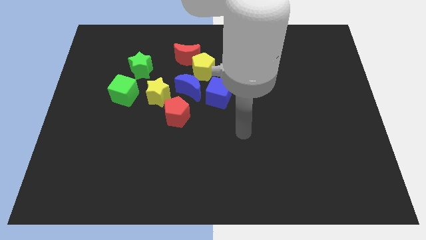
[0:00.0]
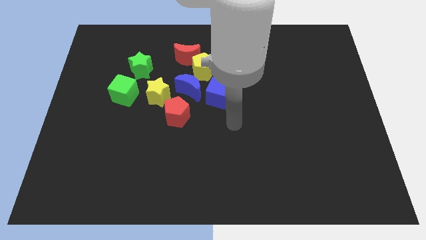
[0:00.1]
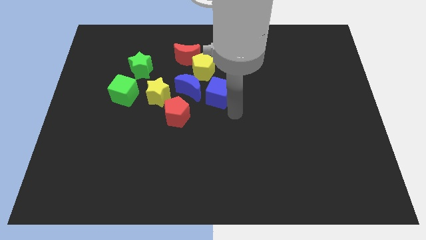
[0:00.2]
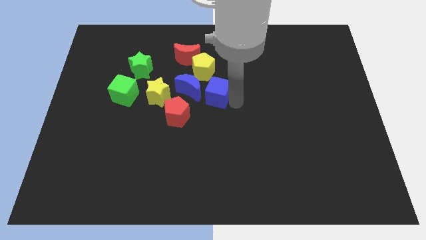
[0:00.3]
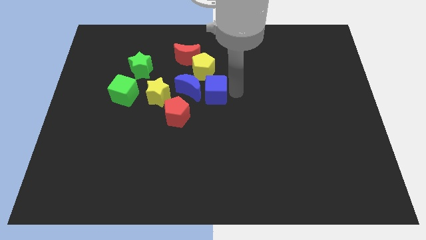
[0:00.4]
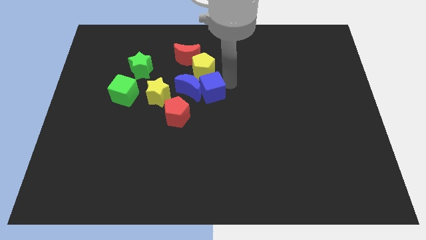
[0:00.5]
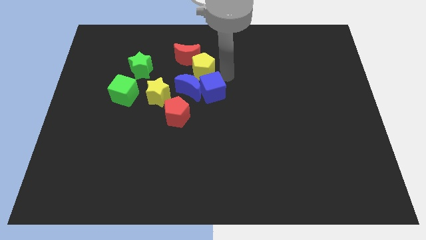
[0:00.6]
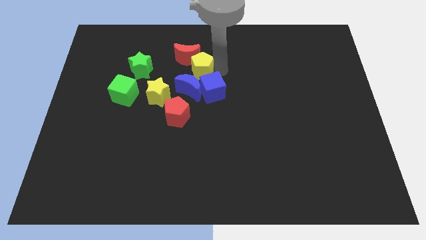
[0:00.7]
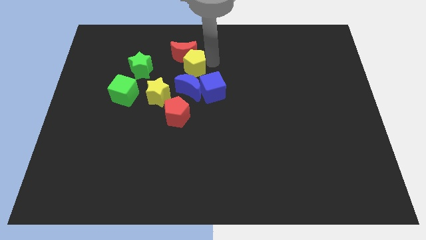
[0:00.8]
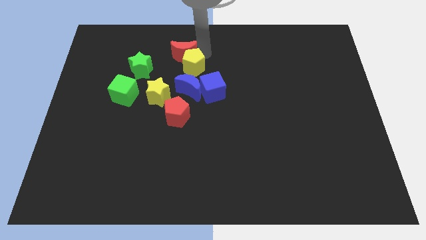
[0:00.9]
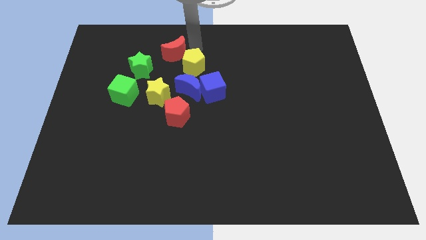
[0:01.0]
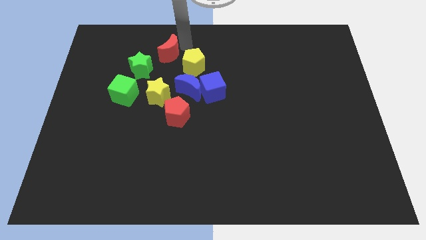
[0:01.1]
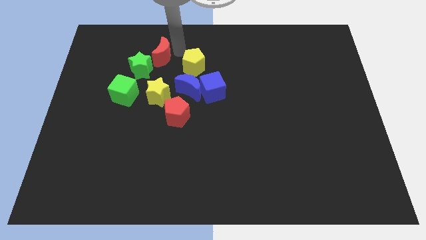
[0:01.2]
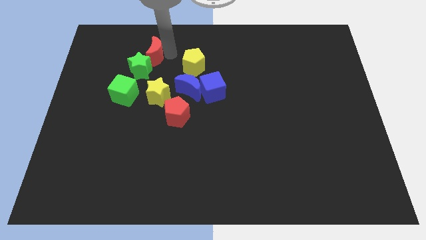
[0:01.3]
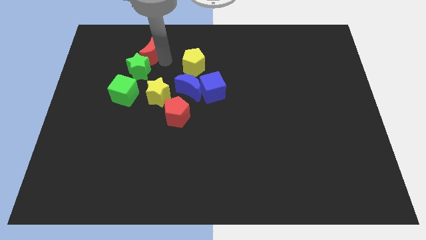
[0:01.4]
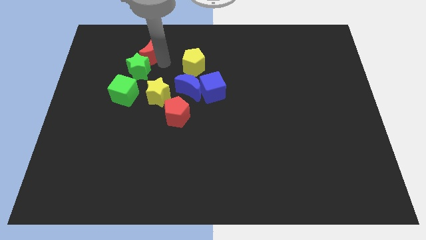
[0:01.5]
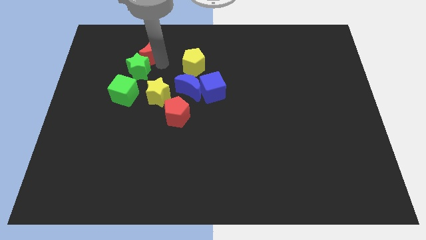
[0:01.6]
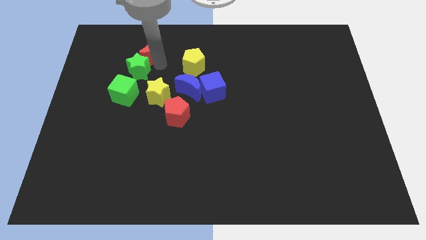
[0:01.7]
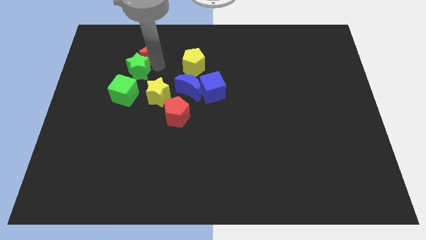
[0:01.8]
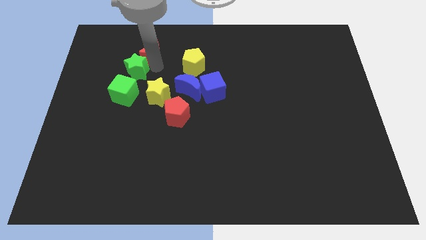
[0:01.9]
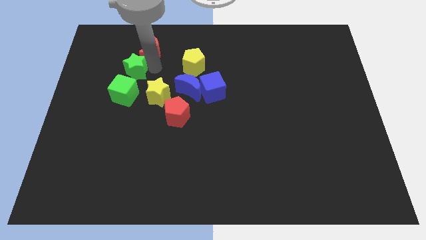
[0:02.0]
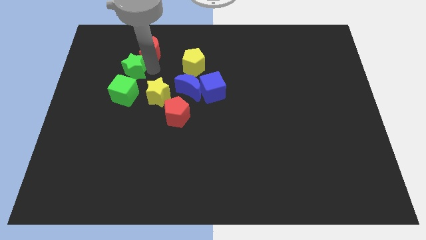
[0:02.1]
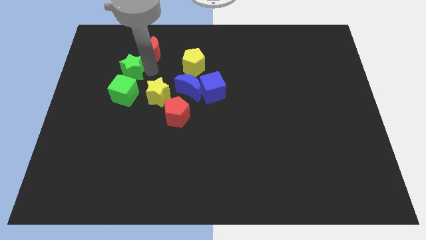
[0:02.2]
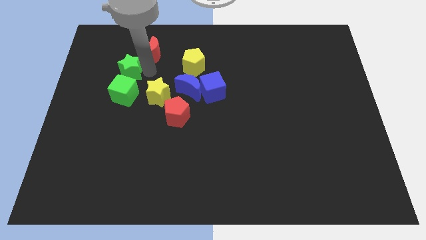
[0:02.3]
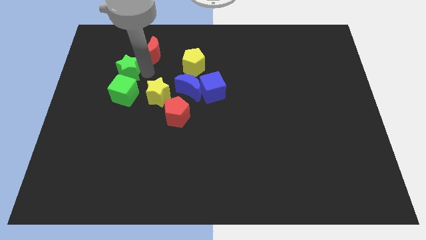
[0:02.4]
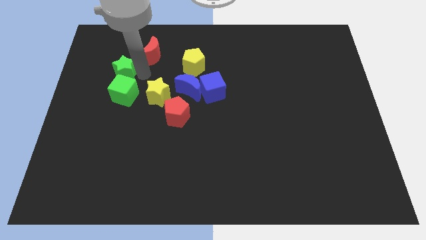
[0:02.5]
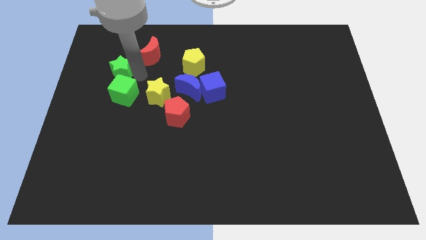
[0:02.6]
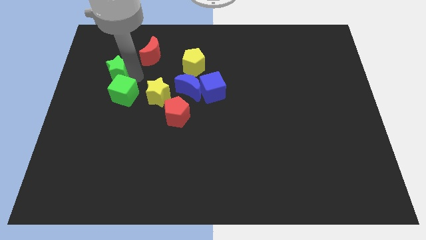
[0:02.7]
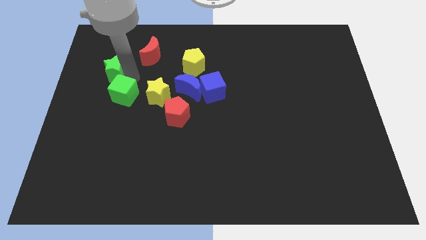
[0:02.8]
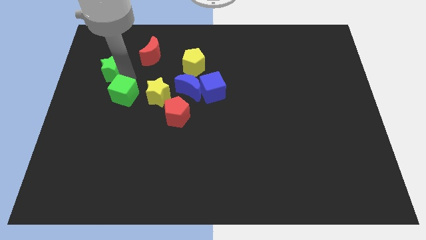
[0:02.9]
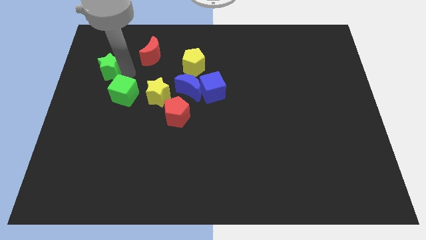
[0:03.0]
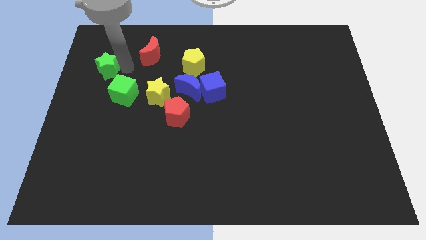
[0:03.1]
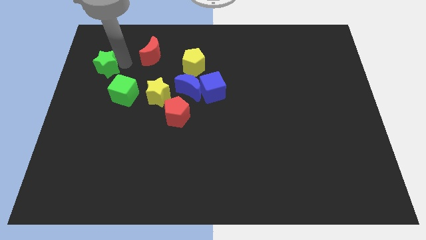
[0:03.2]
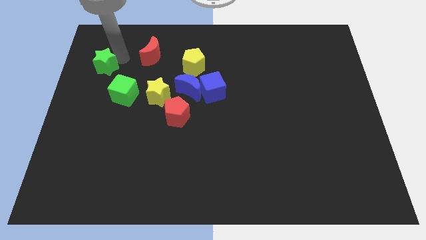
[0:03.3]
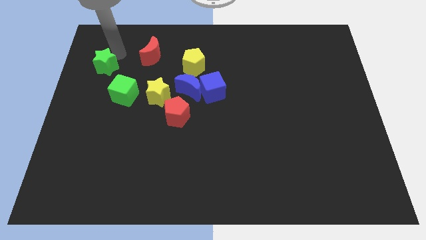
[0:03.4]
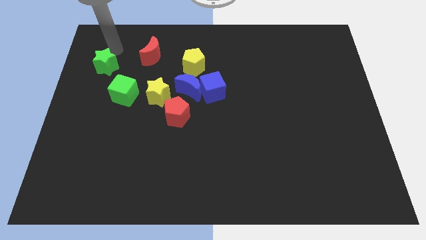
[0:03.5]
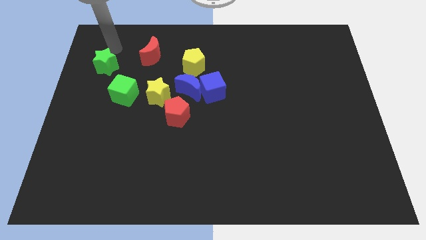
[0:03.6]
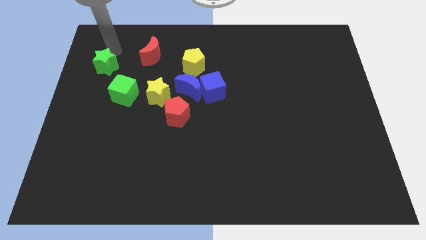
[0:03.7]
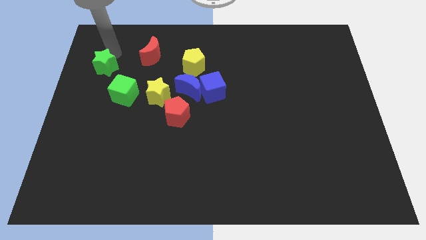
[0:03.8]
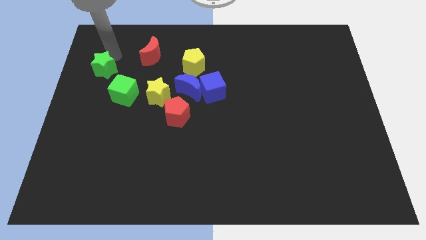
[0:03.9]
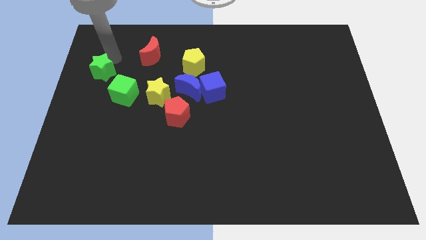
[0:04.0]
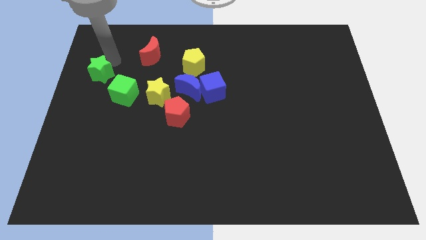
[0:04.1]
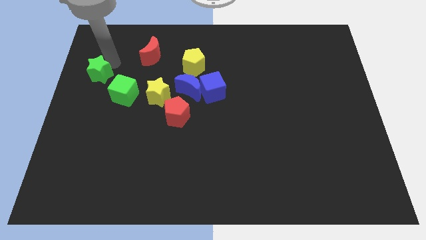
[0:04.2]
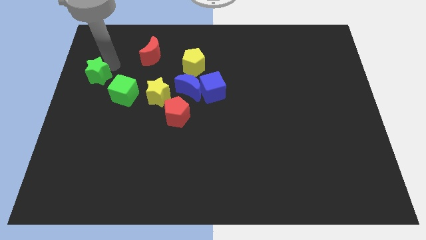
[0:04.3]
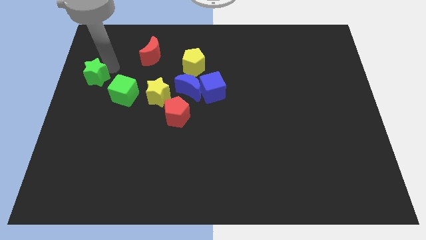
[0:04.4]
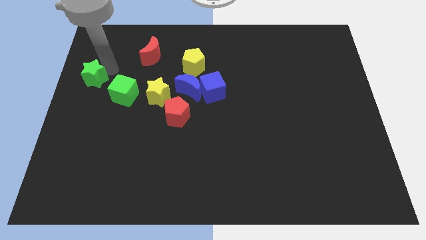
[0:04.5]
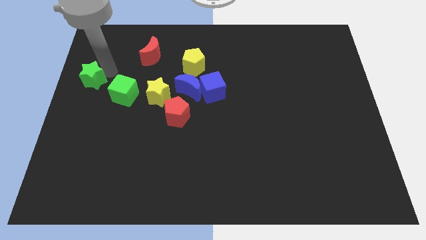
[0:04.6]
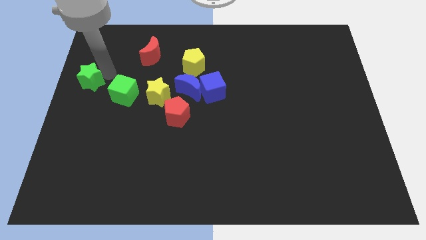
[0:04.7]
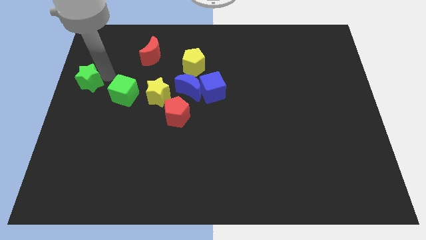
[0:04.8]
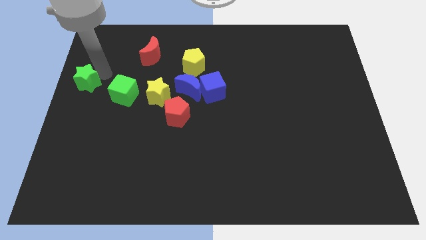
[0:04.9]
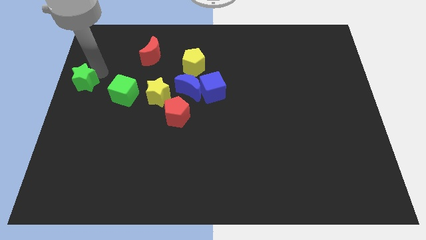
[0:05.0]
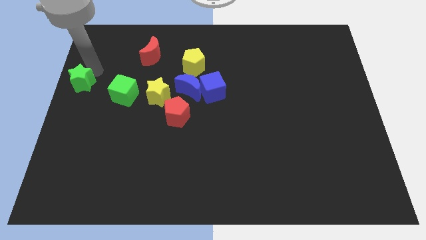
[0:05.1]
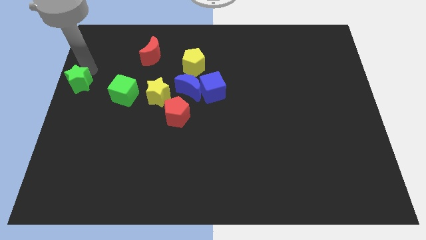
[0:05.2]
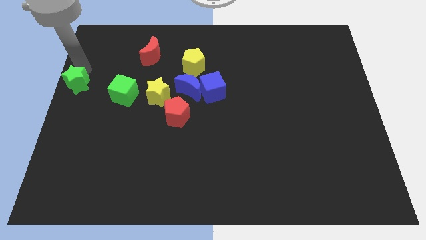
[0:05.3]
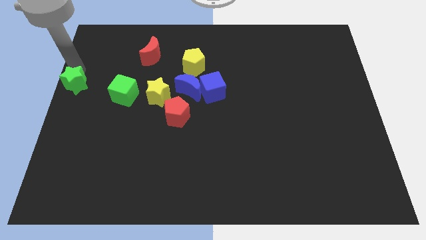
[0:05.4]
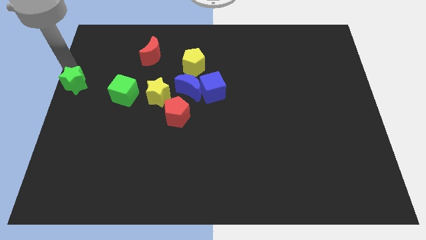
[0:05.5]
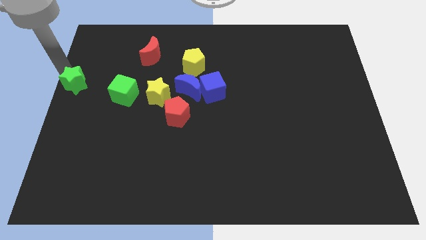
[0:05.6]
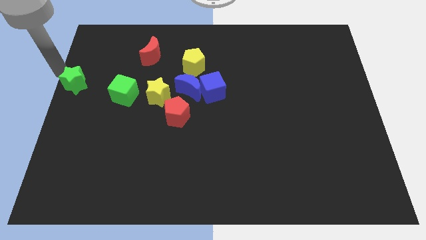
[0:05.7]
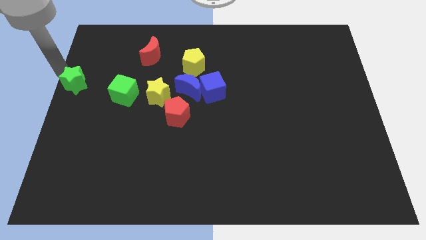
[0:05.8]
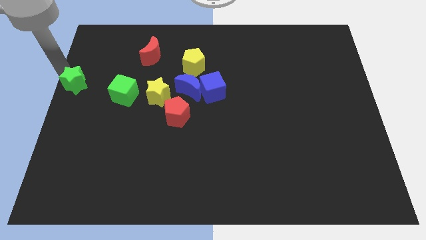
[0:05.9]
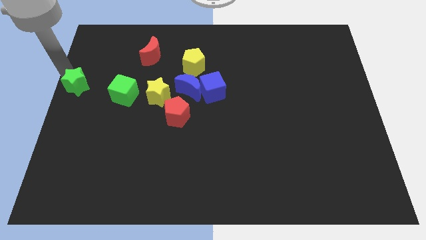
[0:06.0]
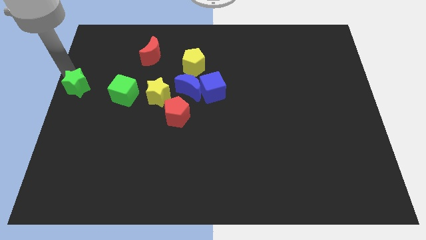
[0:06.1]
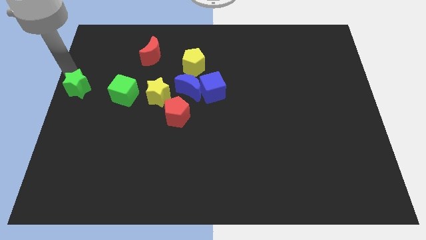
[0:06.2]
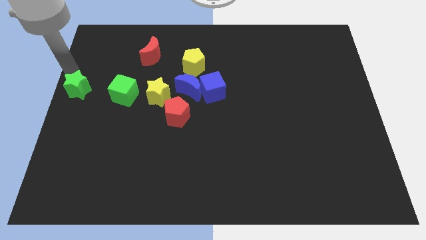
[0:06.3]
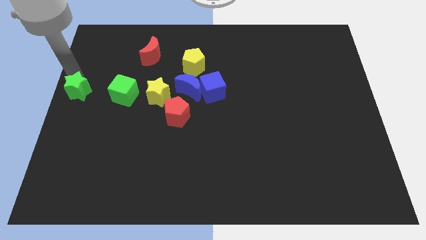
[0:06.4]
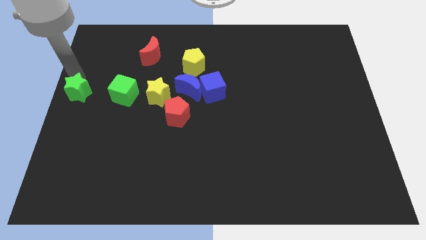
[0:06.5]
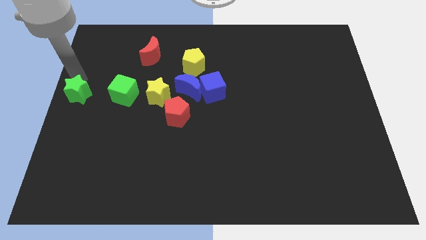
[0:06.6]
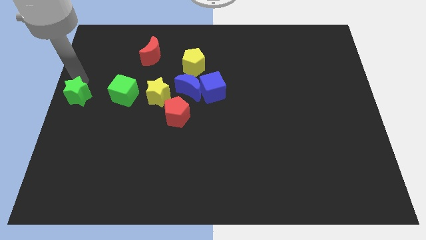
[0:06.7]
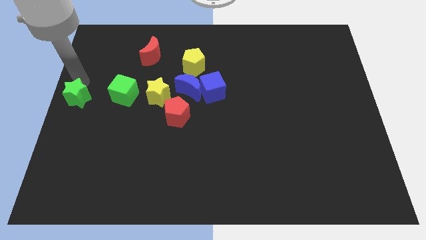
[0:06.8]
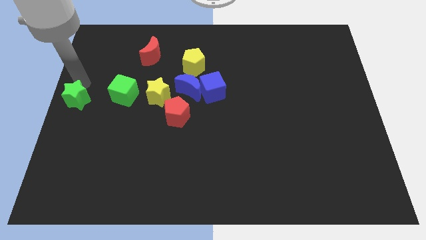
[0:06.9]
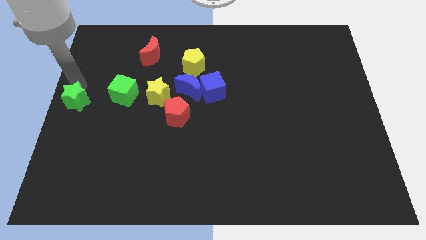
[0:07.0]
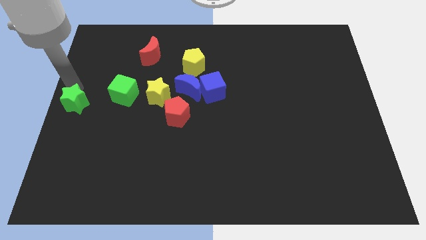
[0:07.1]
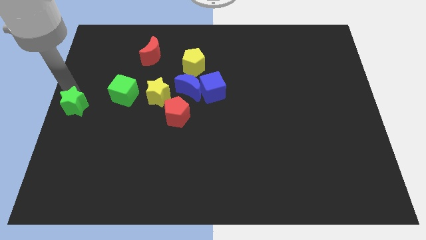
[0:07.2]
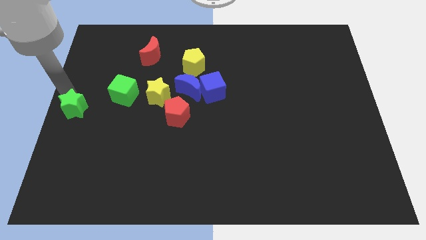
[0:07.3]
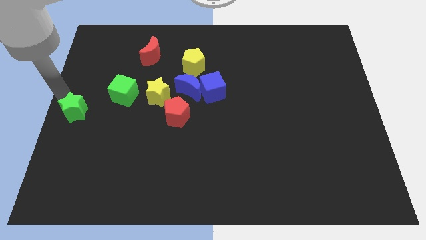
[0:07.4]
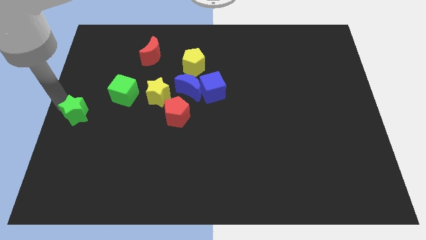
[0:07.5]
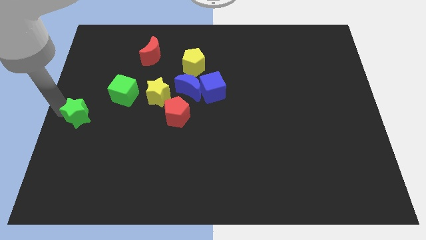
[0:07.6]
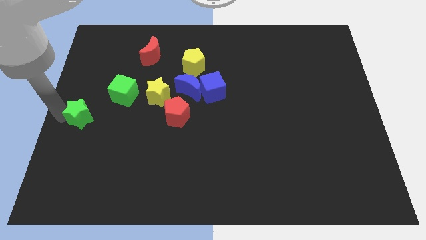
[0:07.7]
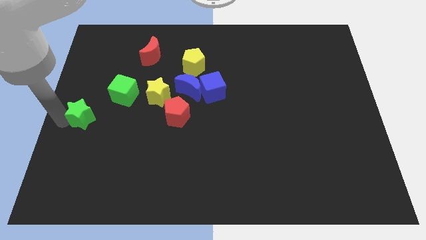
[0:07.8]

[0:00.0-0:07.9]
slide the green star slightly downwards

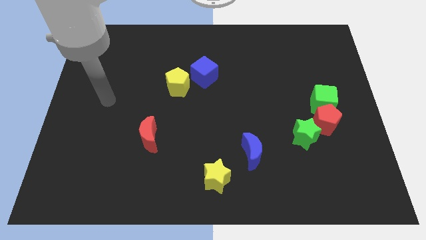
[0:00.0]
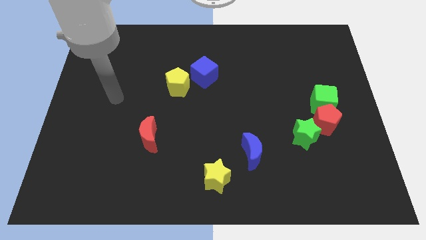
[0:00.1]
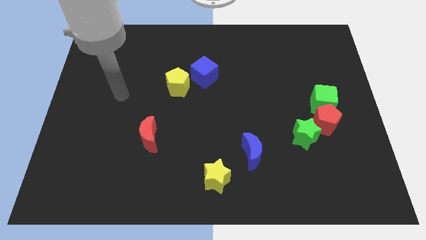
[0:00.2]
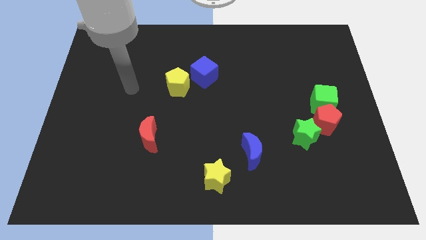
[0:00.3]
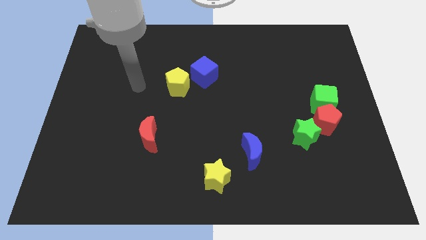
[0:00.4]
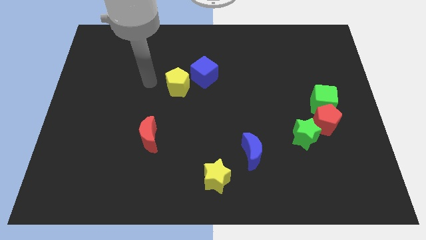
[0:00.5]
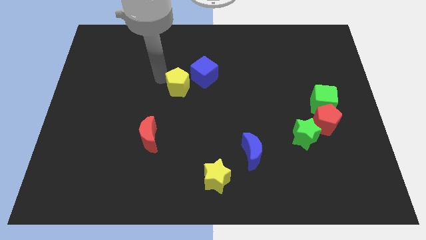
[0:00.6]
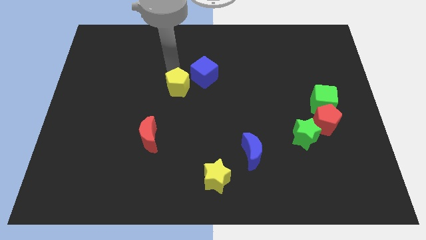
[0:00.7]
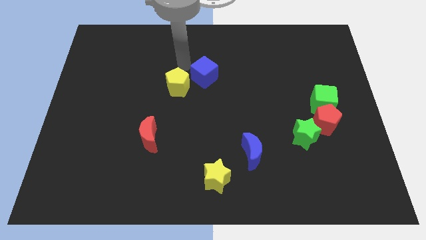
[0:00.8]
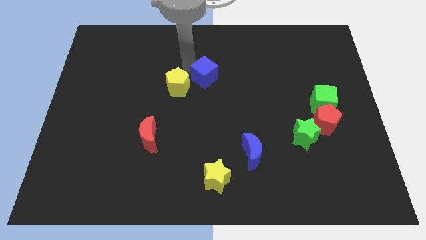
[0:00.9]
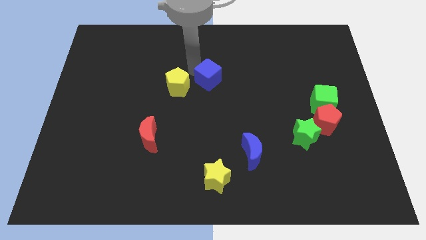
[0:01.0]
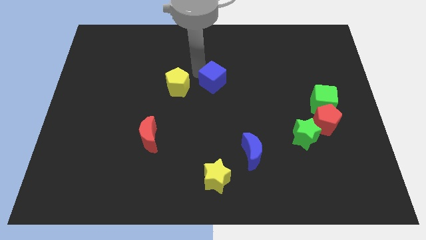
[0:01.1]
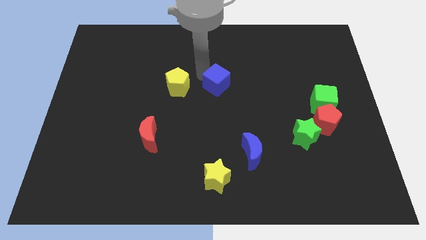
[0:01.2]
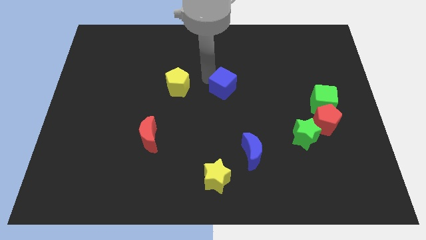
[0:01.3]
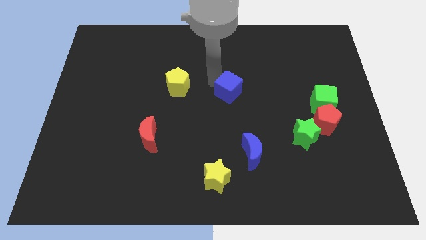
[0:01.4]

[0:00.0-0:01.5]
slightly move the blue cube down and to the right diagonally
